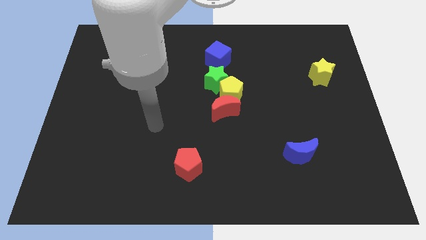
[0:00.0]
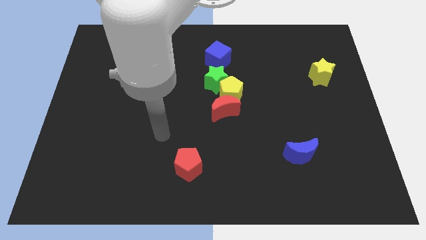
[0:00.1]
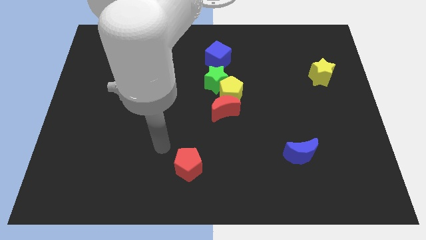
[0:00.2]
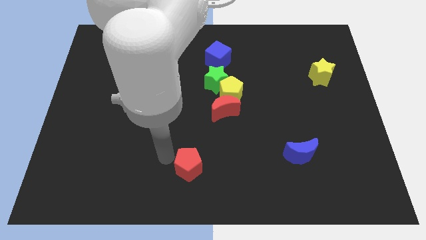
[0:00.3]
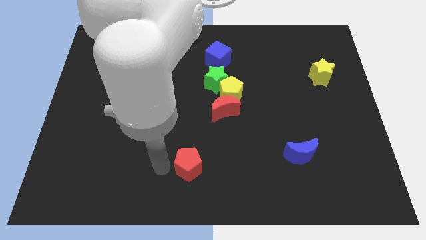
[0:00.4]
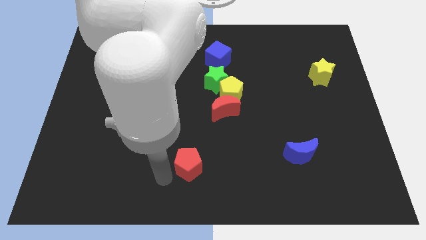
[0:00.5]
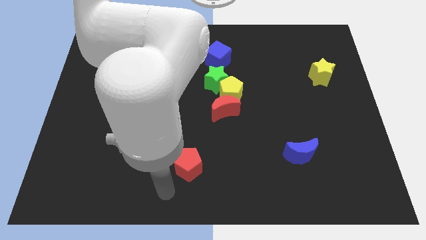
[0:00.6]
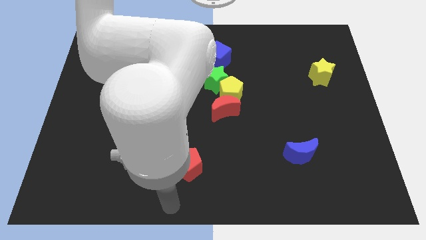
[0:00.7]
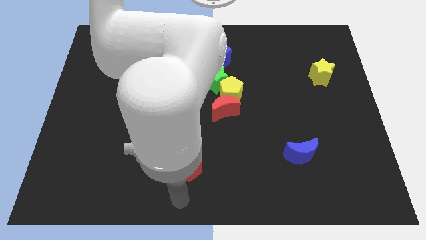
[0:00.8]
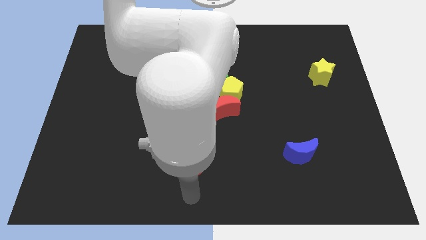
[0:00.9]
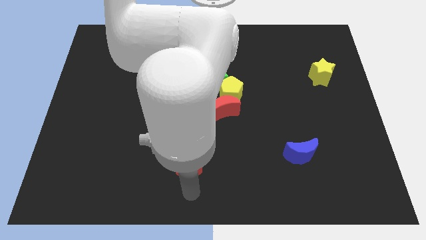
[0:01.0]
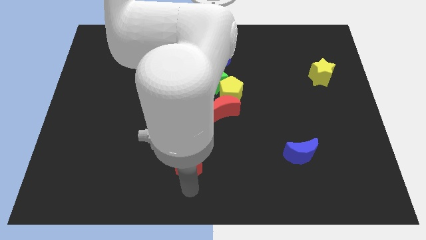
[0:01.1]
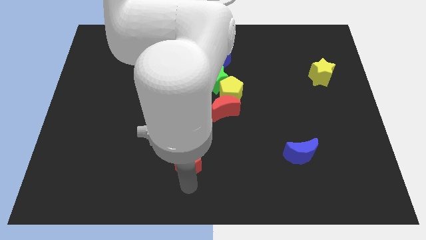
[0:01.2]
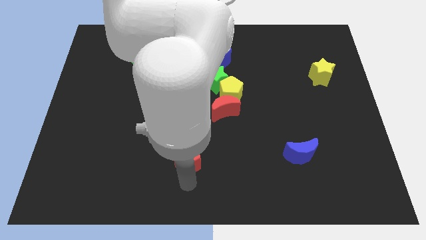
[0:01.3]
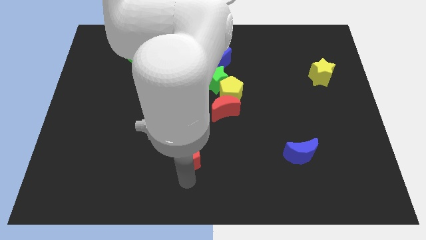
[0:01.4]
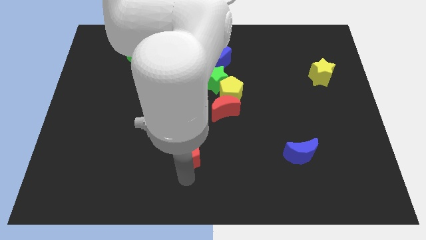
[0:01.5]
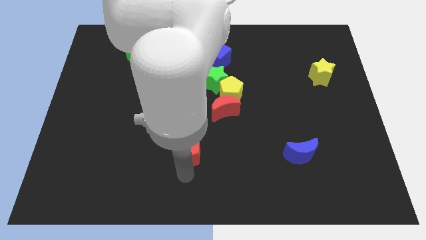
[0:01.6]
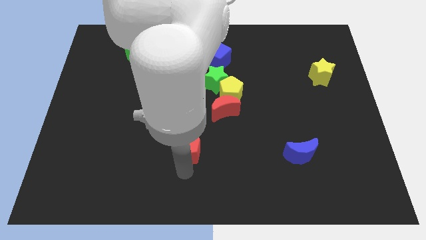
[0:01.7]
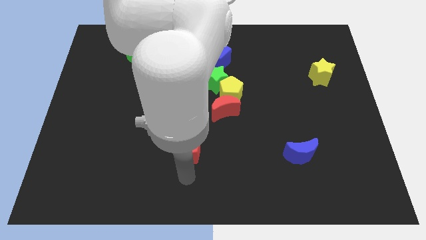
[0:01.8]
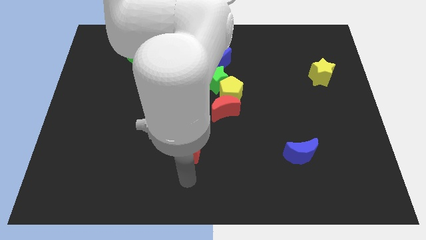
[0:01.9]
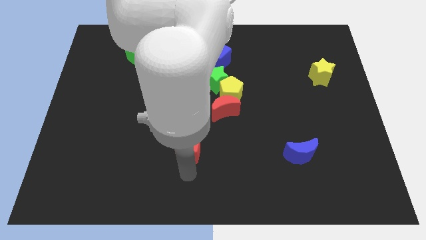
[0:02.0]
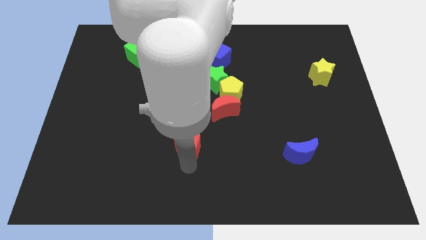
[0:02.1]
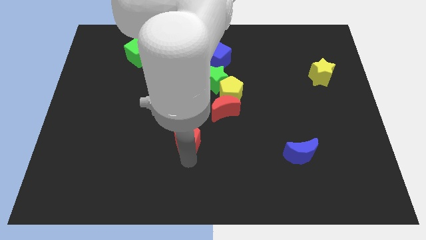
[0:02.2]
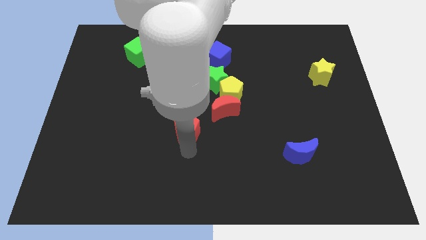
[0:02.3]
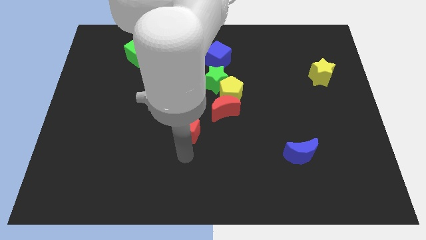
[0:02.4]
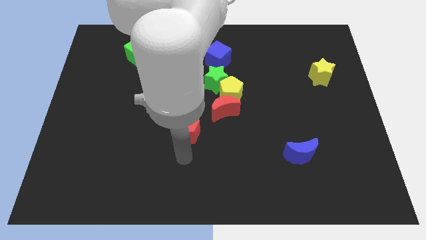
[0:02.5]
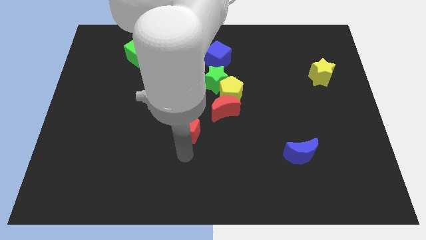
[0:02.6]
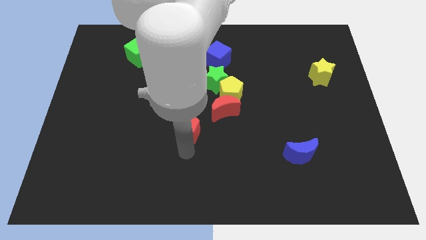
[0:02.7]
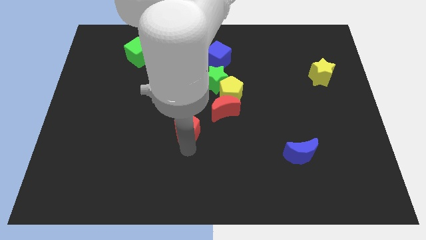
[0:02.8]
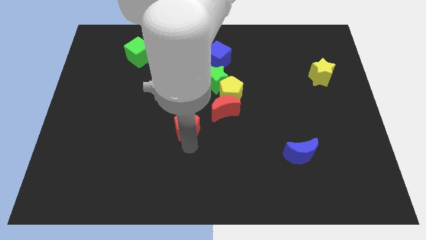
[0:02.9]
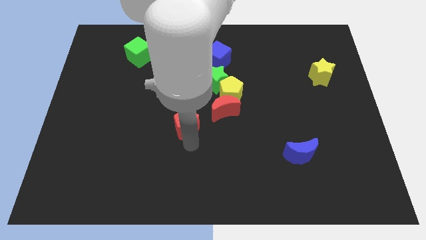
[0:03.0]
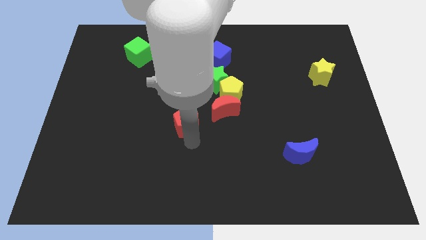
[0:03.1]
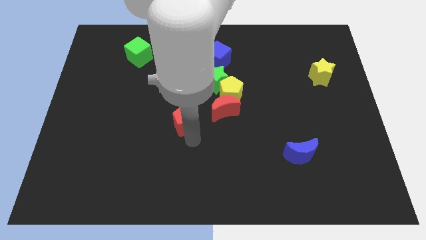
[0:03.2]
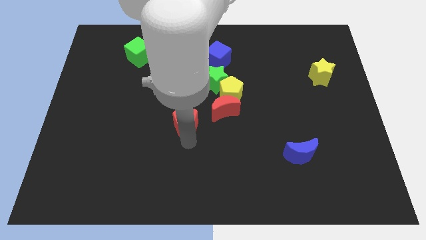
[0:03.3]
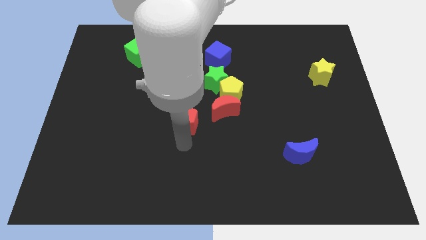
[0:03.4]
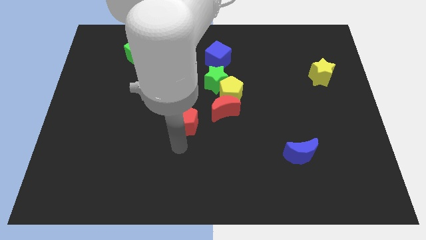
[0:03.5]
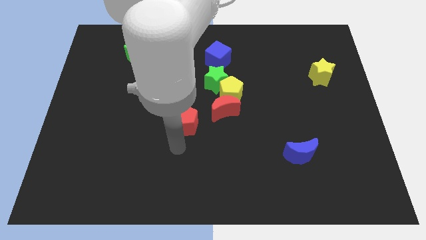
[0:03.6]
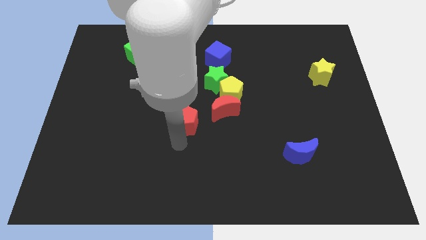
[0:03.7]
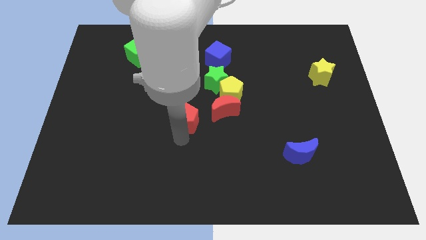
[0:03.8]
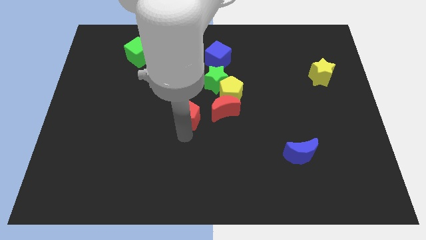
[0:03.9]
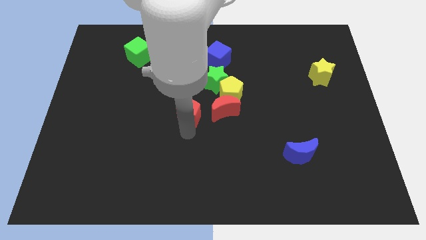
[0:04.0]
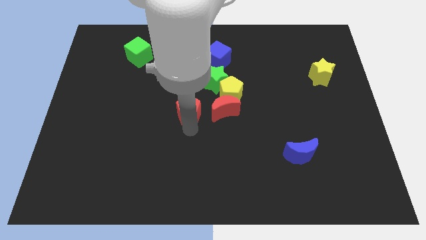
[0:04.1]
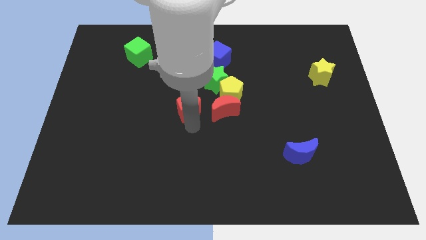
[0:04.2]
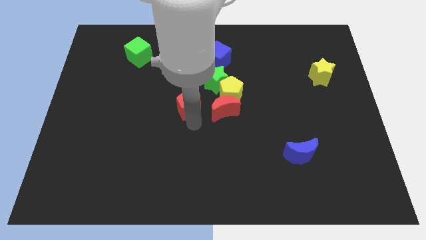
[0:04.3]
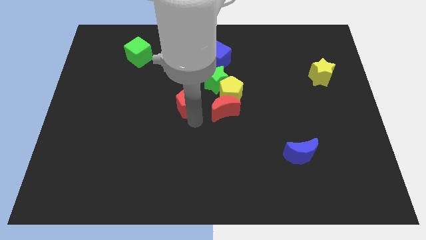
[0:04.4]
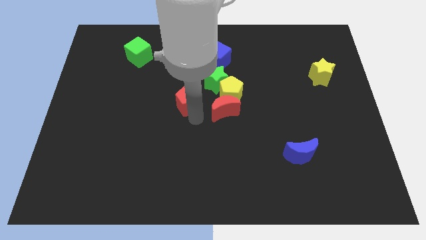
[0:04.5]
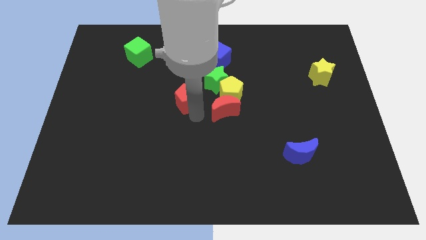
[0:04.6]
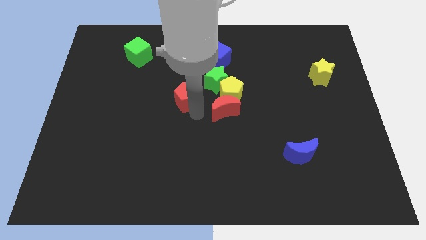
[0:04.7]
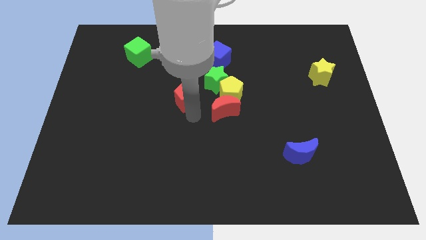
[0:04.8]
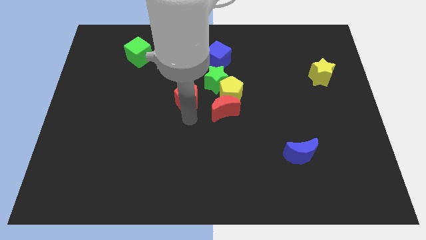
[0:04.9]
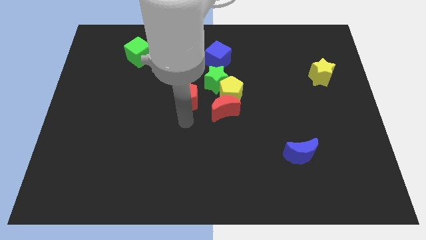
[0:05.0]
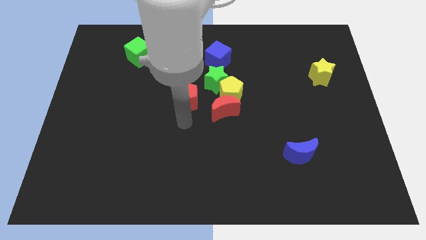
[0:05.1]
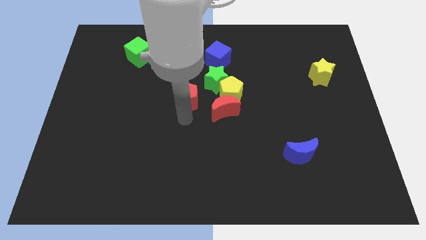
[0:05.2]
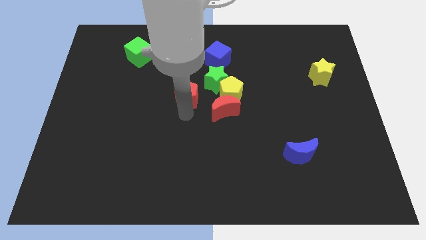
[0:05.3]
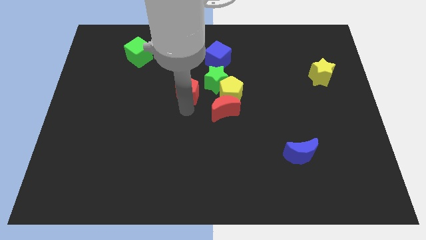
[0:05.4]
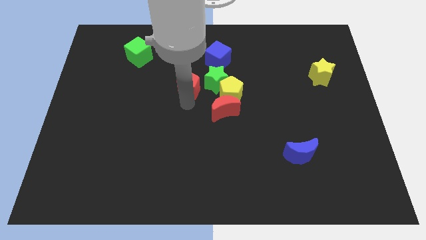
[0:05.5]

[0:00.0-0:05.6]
push the red pentagon upwards

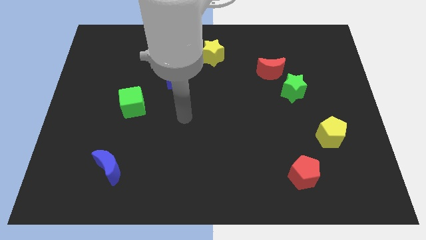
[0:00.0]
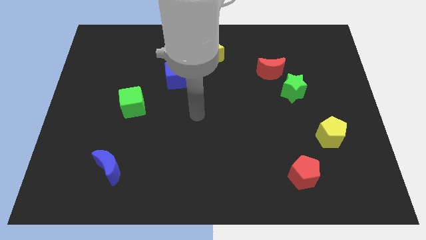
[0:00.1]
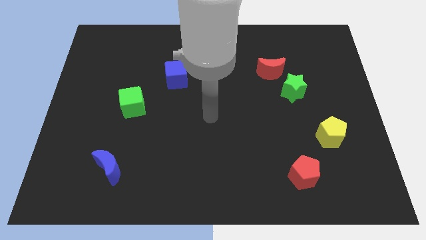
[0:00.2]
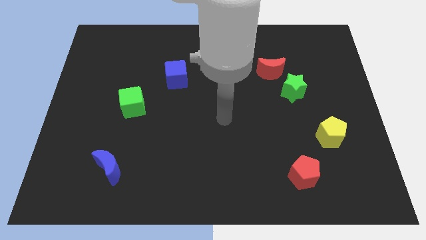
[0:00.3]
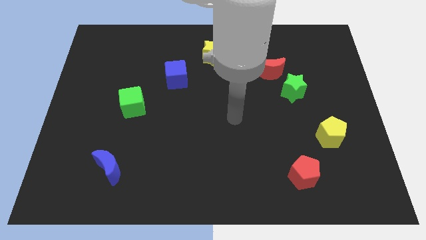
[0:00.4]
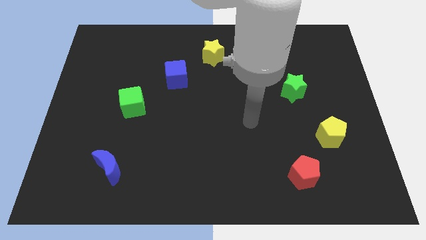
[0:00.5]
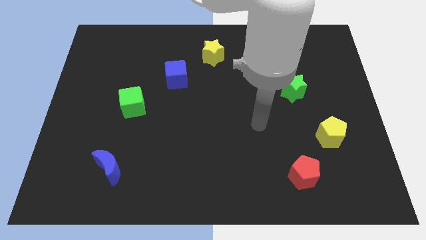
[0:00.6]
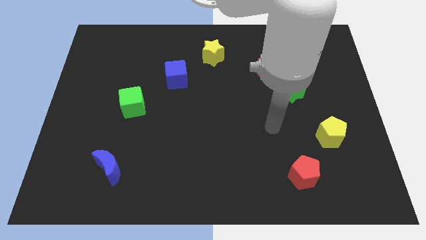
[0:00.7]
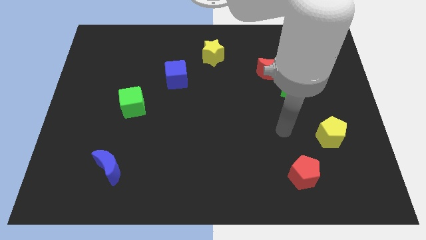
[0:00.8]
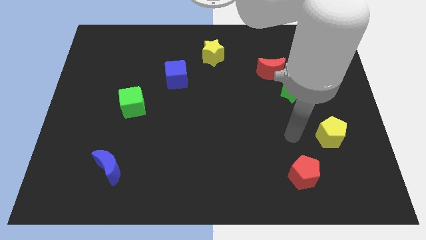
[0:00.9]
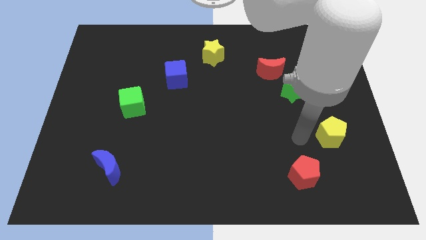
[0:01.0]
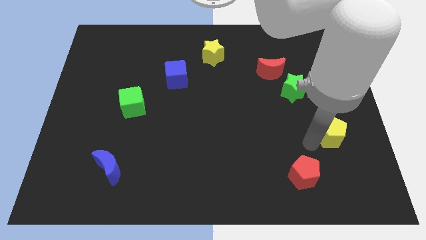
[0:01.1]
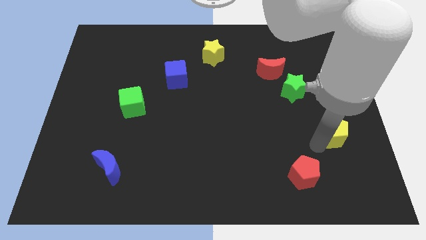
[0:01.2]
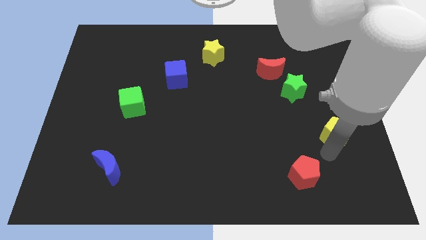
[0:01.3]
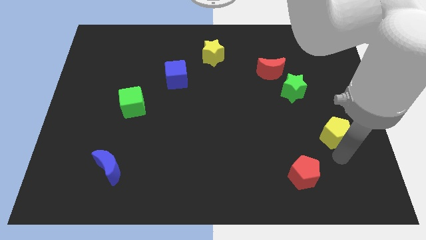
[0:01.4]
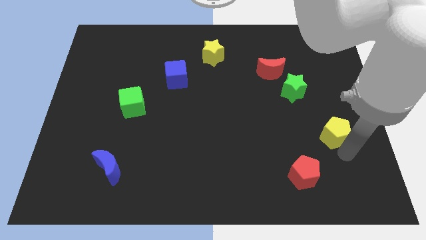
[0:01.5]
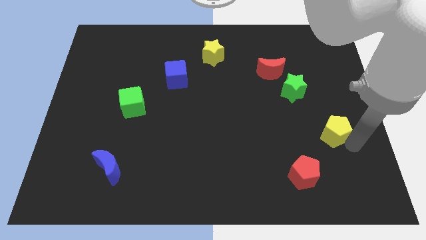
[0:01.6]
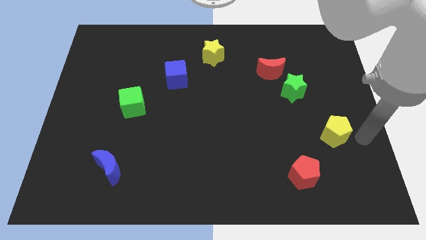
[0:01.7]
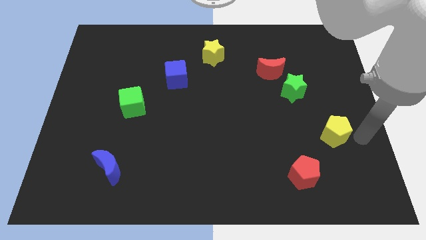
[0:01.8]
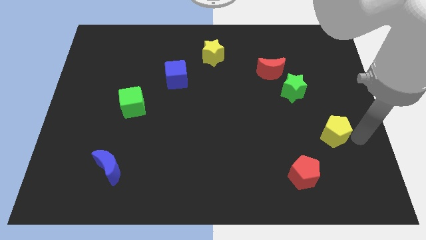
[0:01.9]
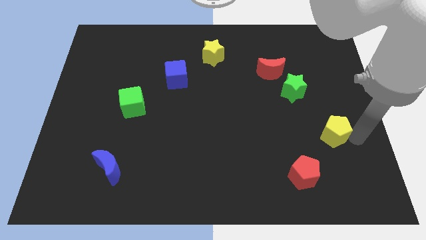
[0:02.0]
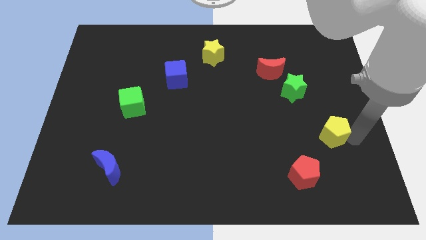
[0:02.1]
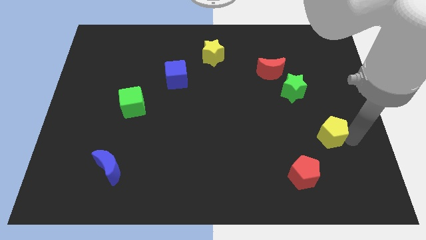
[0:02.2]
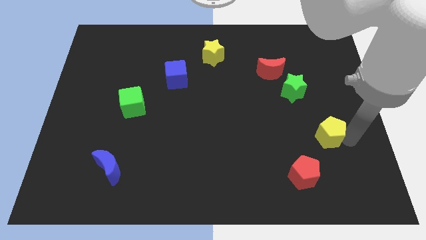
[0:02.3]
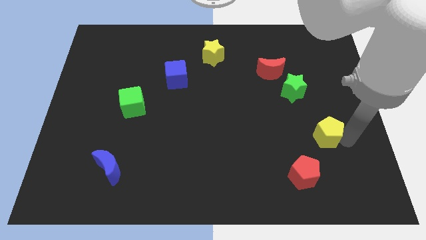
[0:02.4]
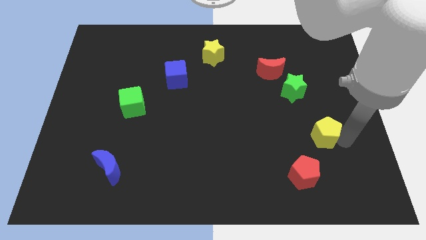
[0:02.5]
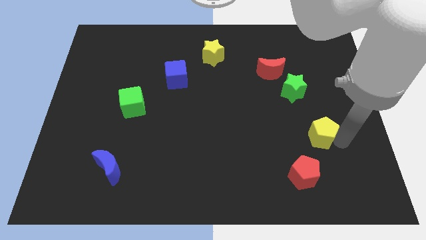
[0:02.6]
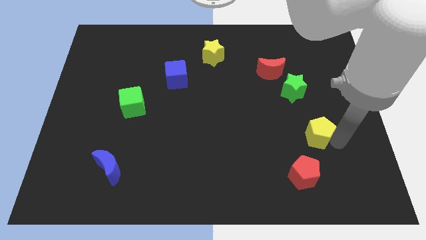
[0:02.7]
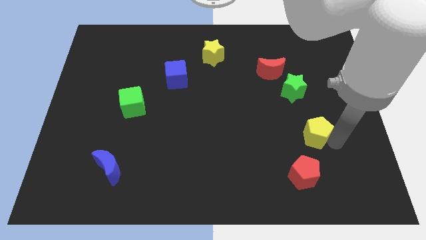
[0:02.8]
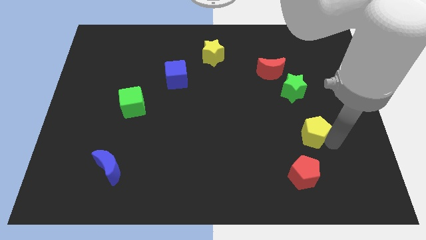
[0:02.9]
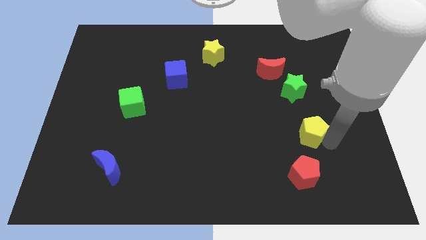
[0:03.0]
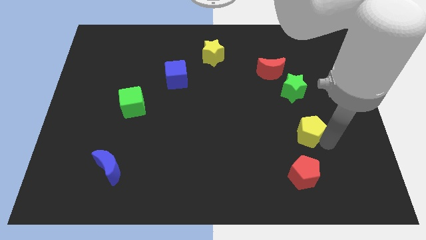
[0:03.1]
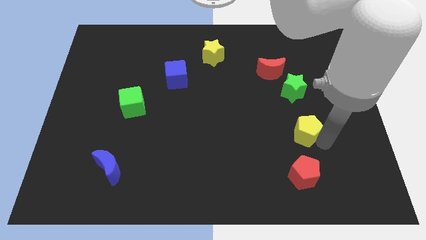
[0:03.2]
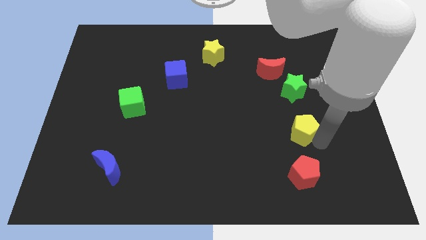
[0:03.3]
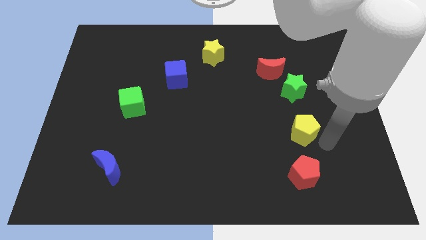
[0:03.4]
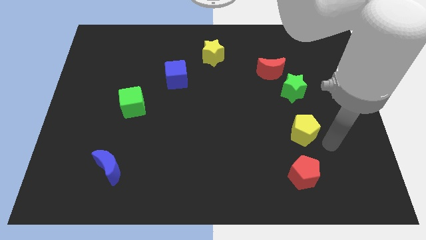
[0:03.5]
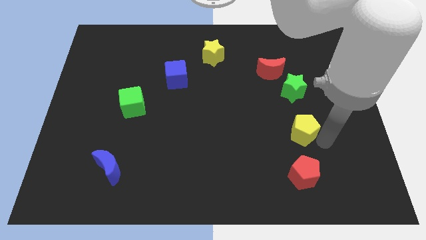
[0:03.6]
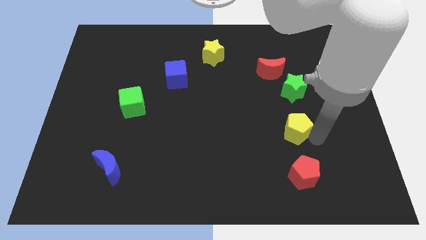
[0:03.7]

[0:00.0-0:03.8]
slightly push the yellow pentagon left
